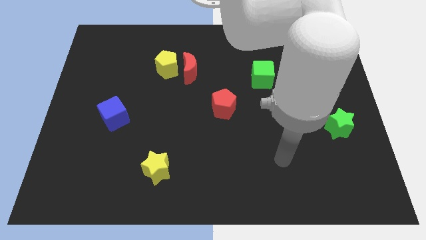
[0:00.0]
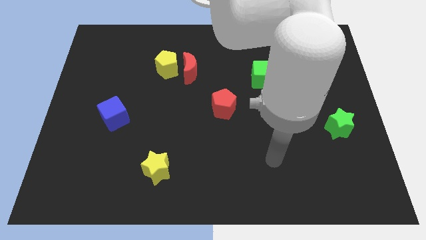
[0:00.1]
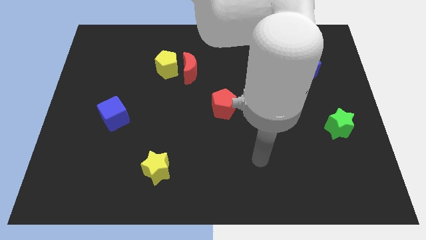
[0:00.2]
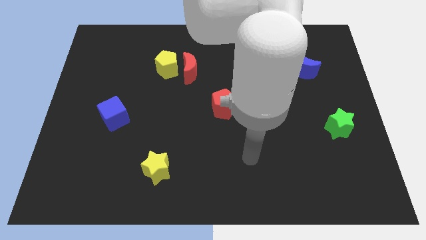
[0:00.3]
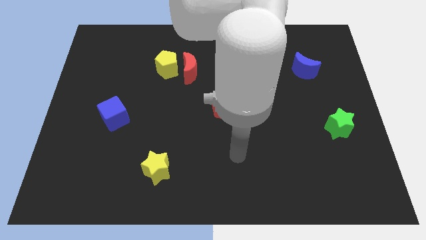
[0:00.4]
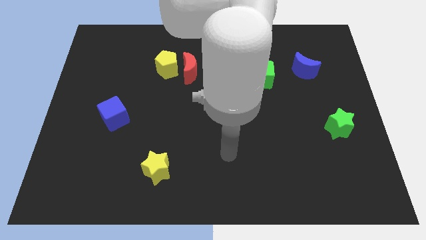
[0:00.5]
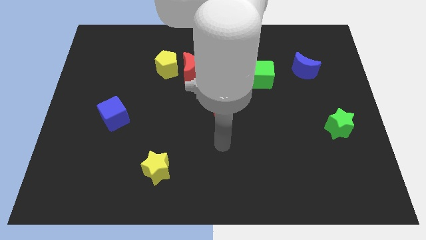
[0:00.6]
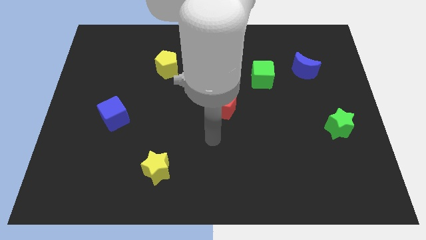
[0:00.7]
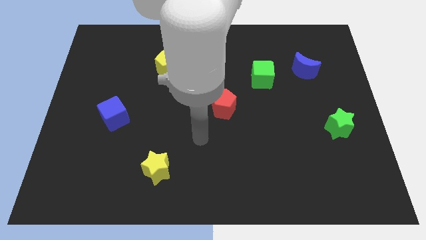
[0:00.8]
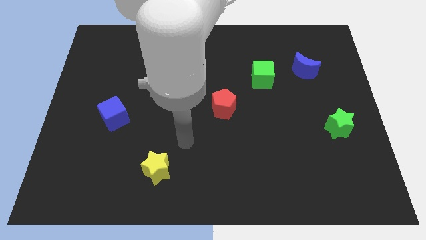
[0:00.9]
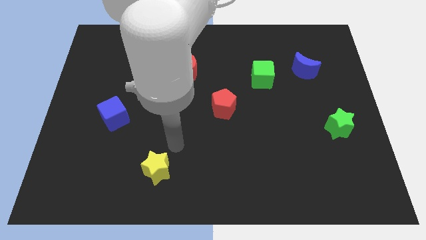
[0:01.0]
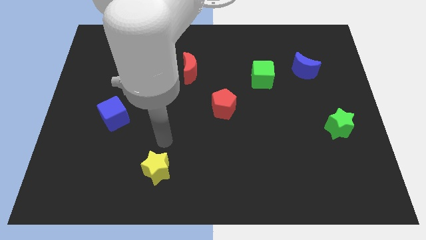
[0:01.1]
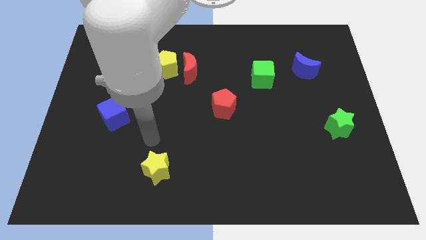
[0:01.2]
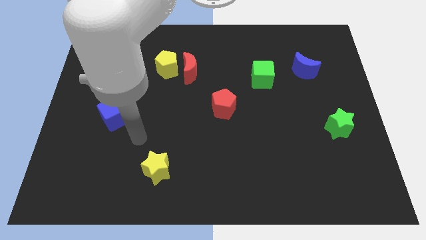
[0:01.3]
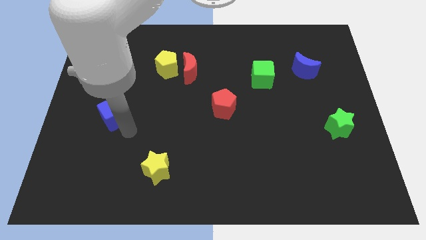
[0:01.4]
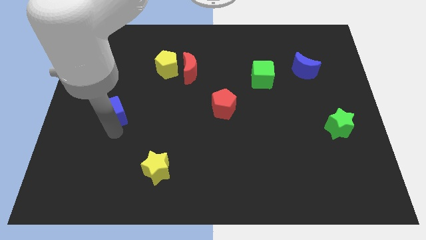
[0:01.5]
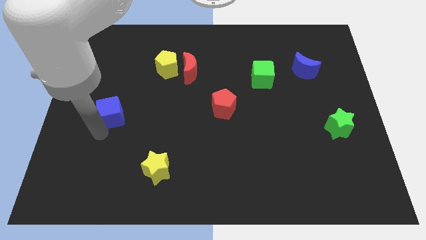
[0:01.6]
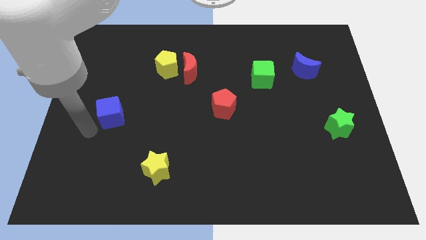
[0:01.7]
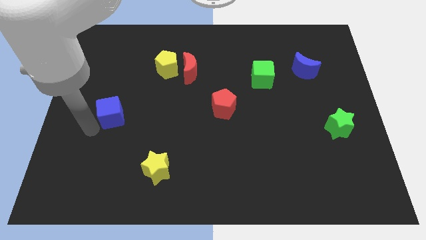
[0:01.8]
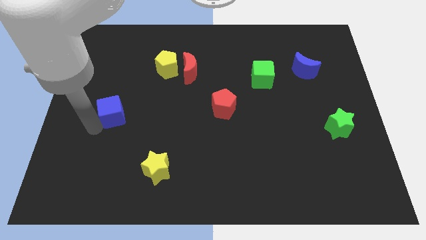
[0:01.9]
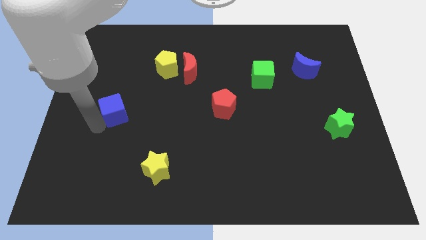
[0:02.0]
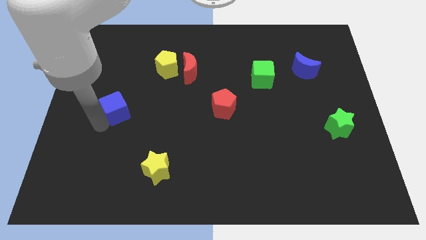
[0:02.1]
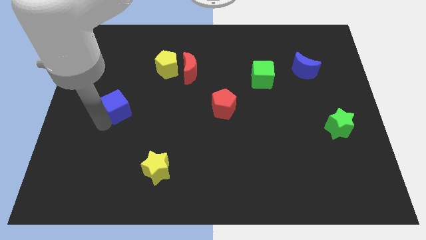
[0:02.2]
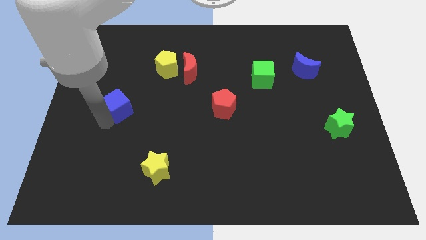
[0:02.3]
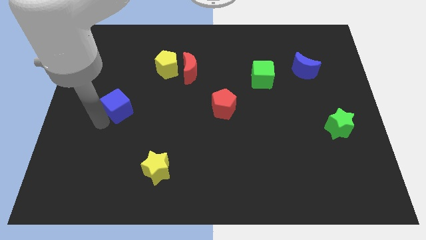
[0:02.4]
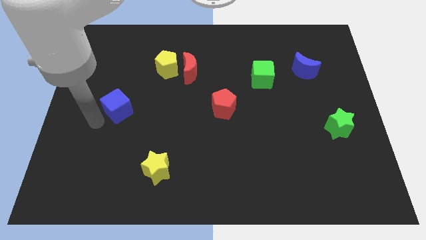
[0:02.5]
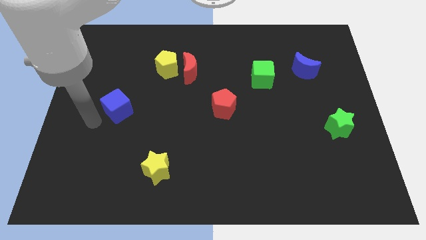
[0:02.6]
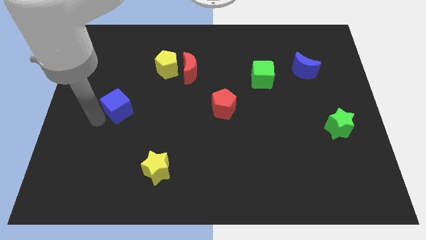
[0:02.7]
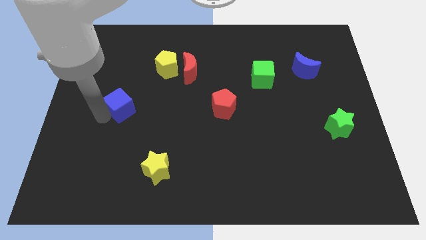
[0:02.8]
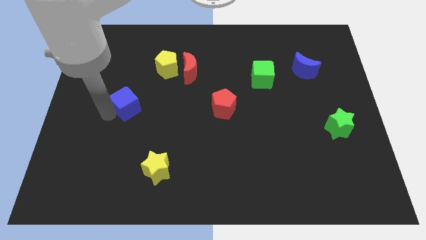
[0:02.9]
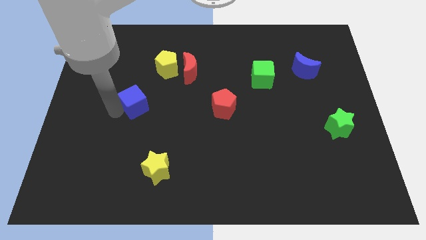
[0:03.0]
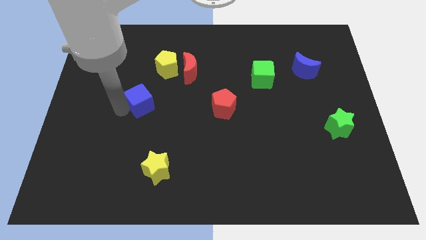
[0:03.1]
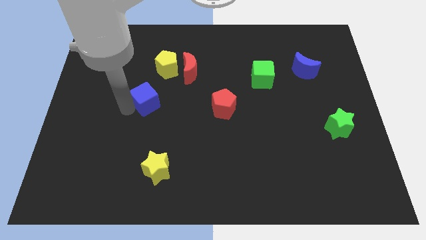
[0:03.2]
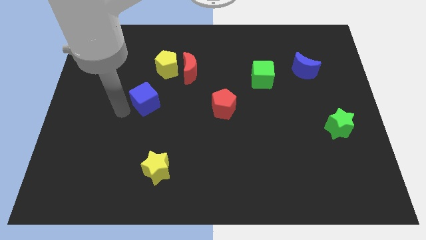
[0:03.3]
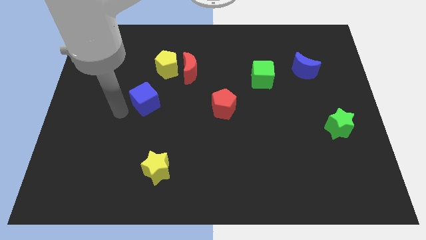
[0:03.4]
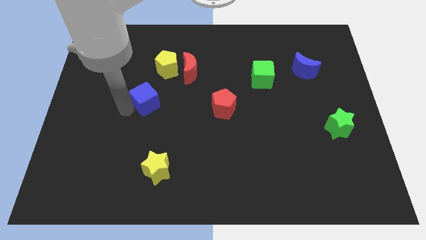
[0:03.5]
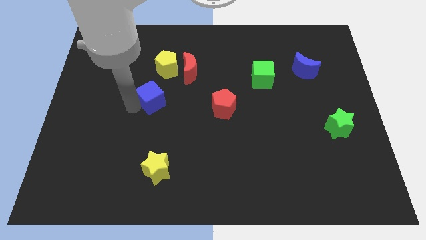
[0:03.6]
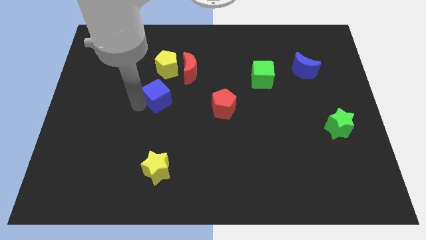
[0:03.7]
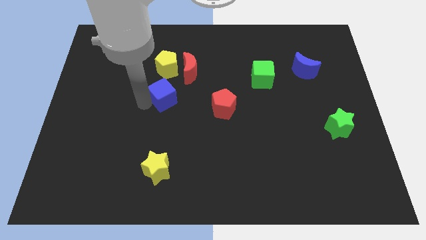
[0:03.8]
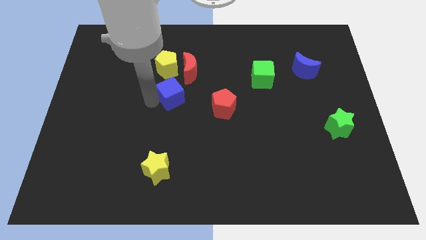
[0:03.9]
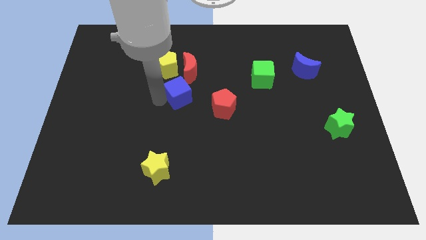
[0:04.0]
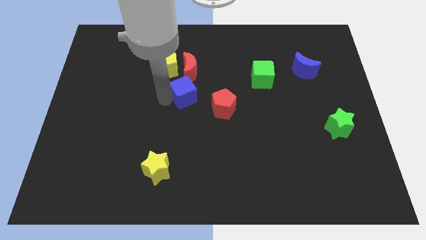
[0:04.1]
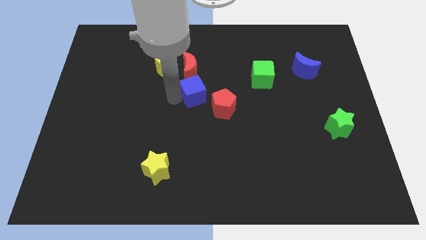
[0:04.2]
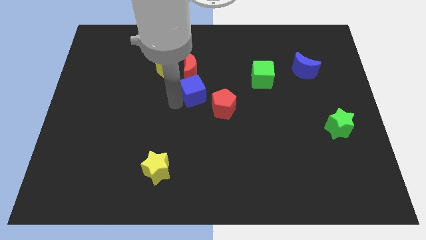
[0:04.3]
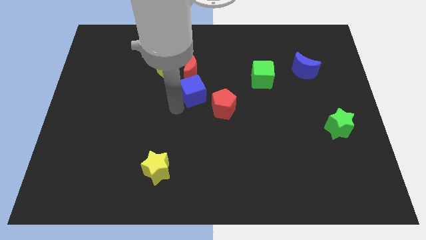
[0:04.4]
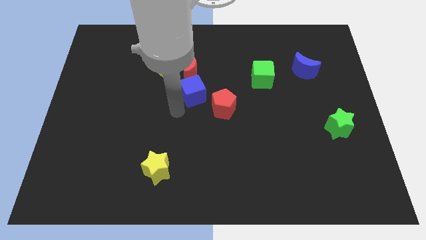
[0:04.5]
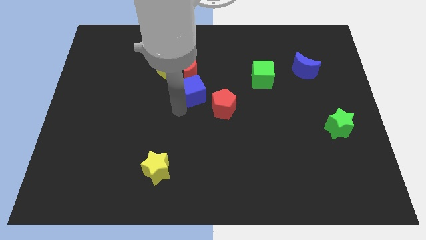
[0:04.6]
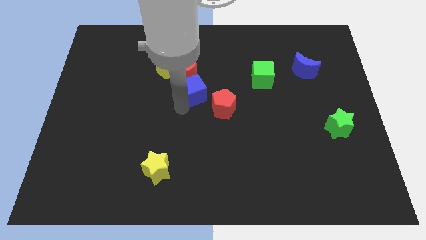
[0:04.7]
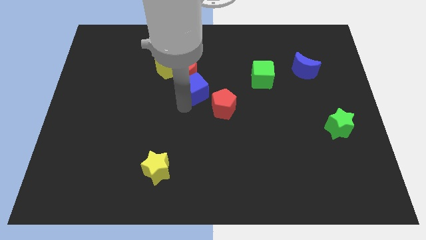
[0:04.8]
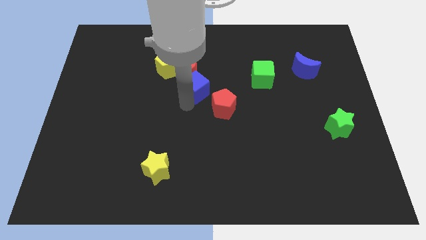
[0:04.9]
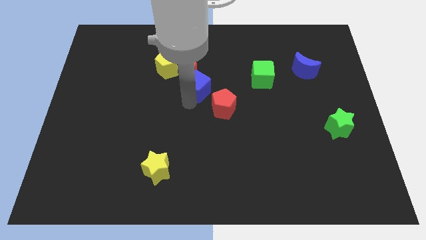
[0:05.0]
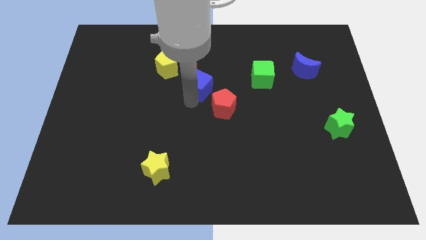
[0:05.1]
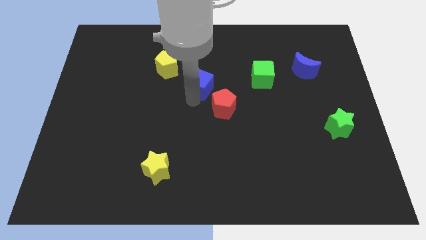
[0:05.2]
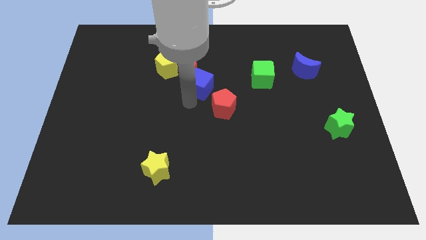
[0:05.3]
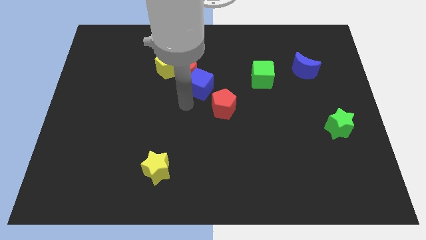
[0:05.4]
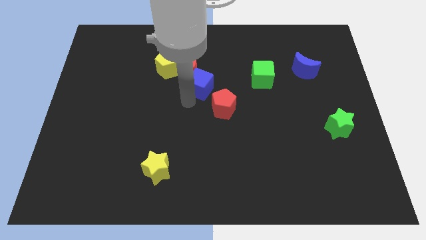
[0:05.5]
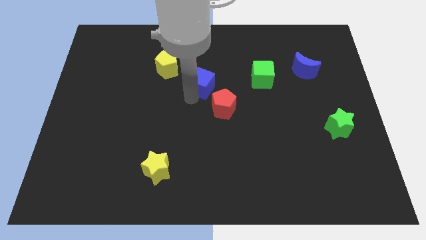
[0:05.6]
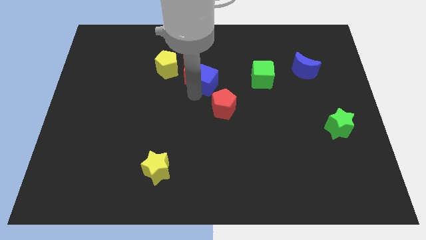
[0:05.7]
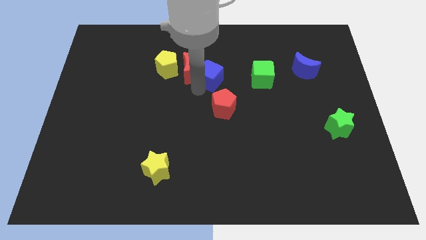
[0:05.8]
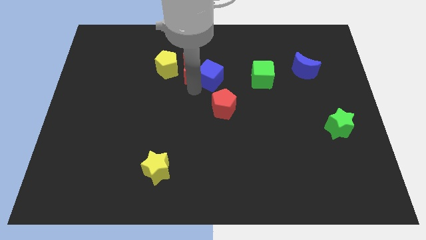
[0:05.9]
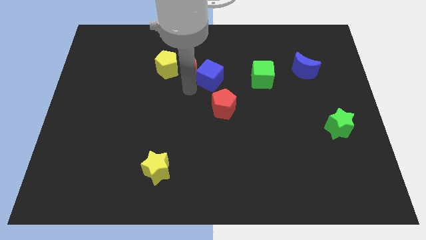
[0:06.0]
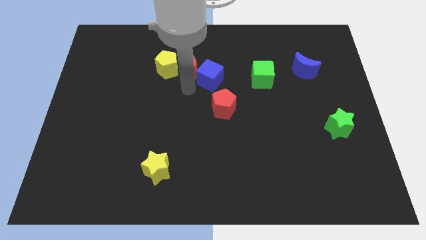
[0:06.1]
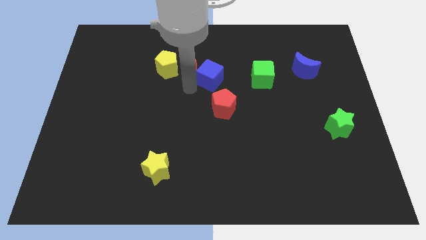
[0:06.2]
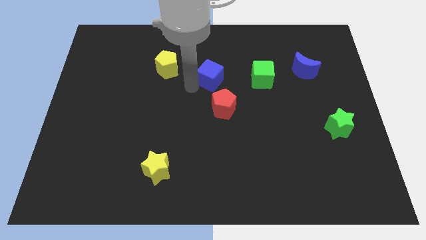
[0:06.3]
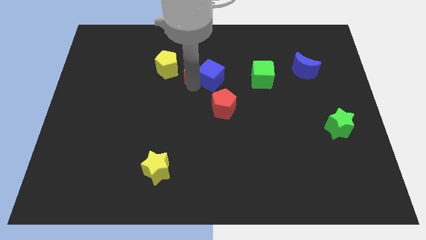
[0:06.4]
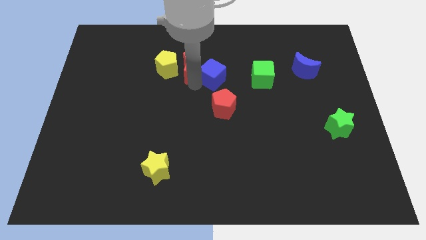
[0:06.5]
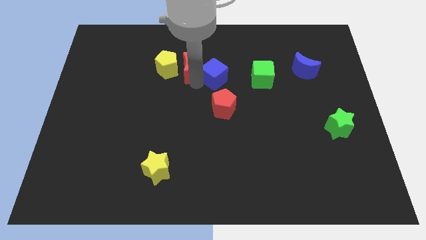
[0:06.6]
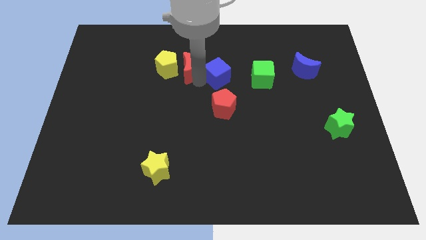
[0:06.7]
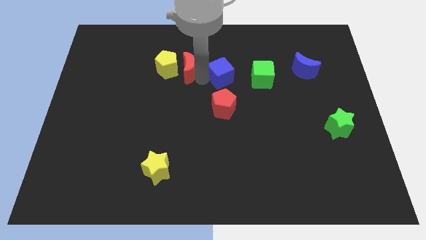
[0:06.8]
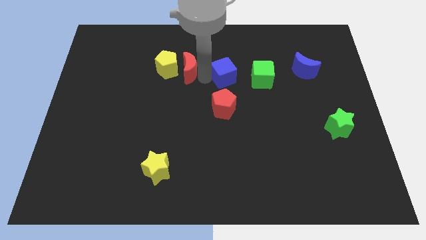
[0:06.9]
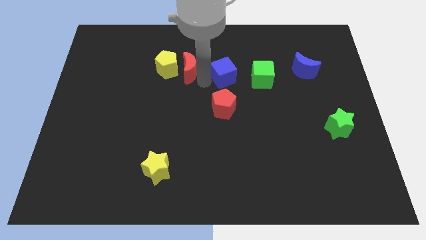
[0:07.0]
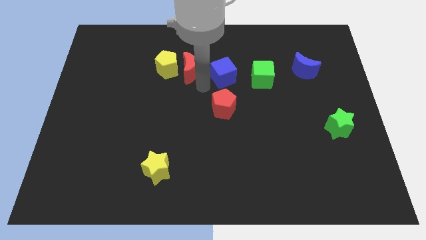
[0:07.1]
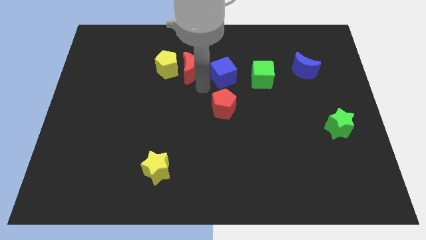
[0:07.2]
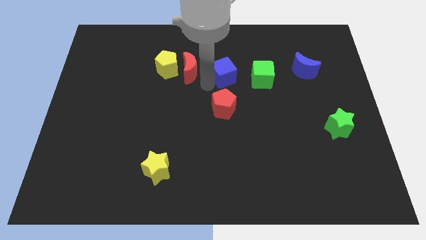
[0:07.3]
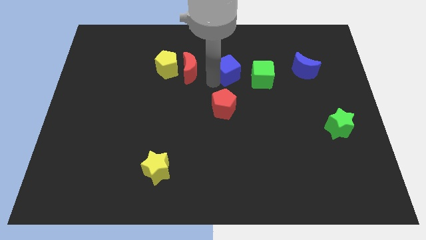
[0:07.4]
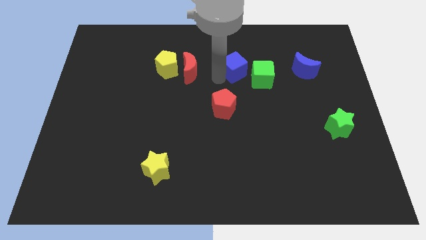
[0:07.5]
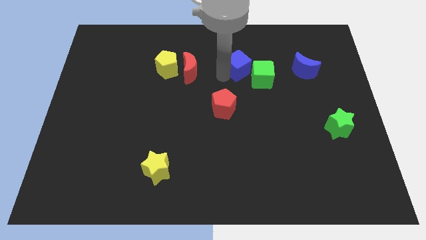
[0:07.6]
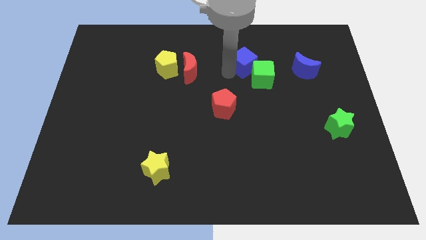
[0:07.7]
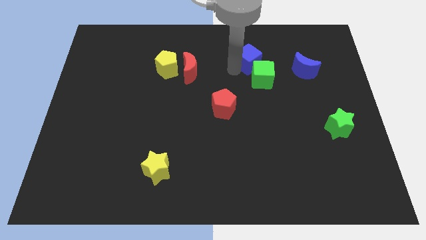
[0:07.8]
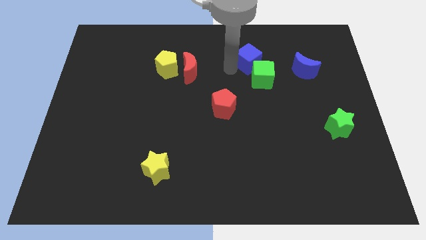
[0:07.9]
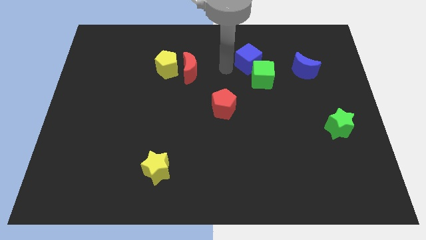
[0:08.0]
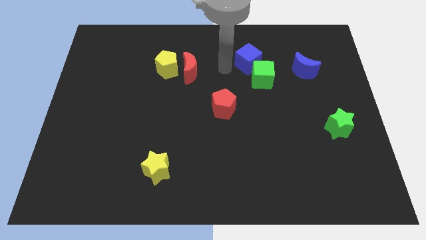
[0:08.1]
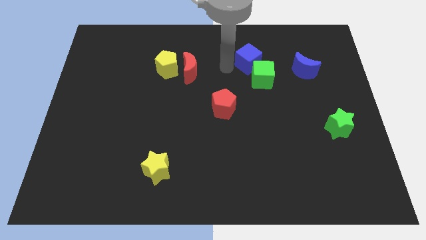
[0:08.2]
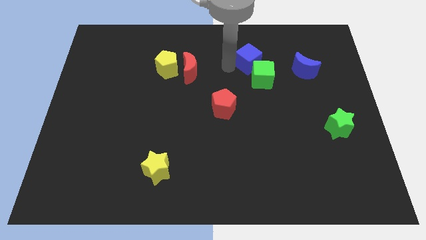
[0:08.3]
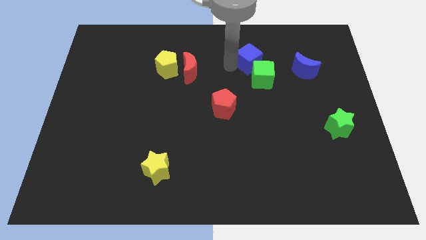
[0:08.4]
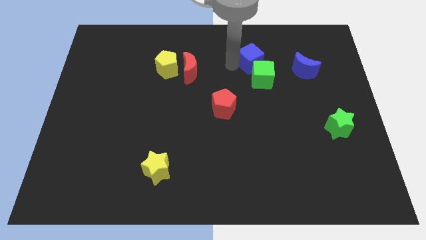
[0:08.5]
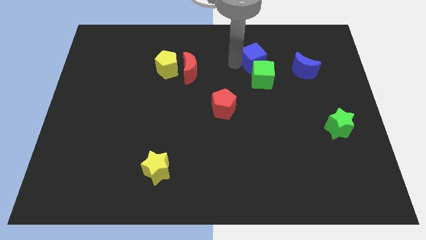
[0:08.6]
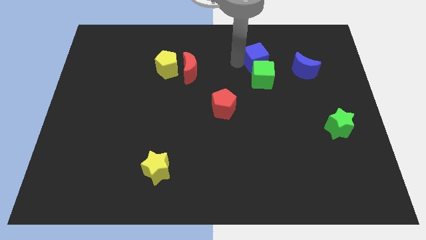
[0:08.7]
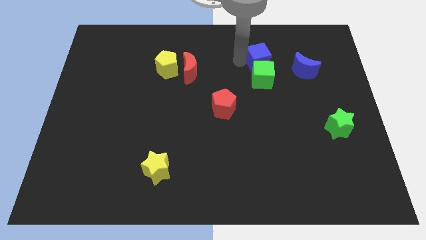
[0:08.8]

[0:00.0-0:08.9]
push the blue cube to the top right side of the green cube
